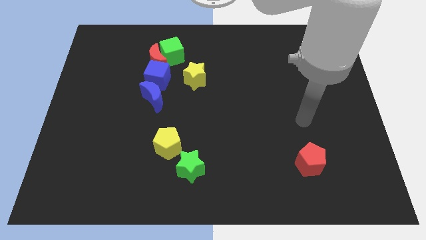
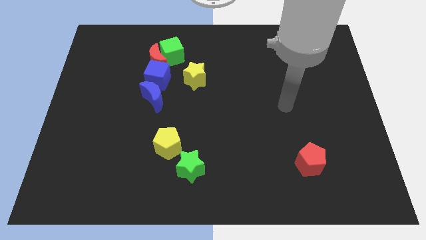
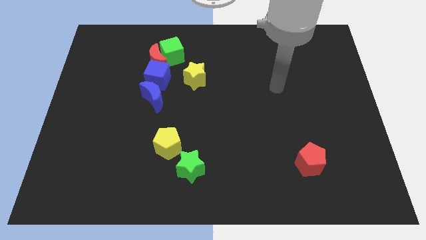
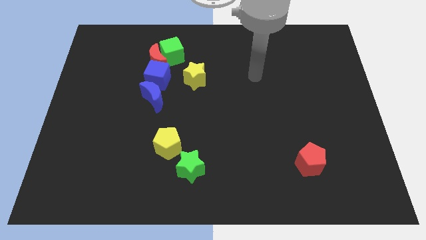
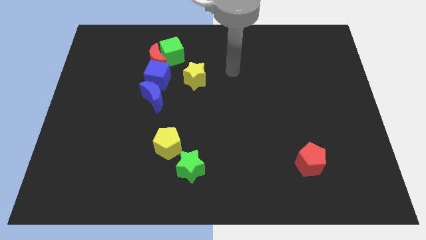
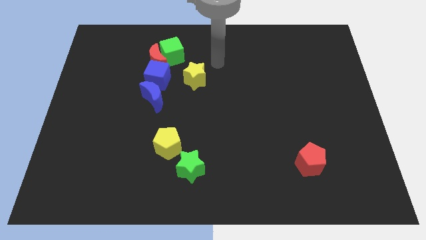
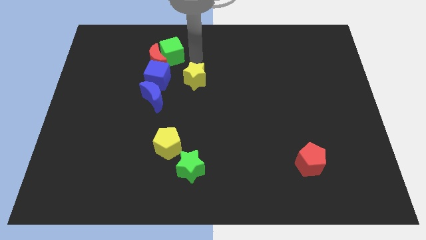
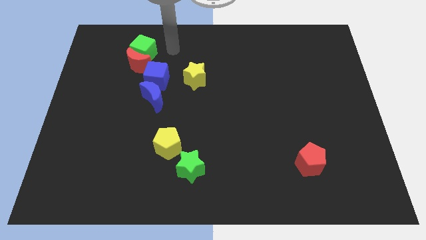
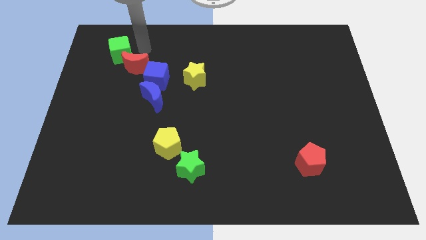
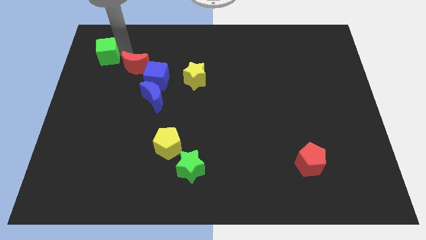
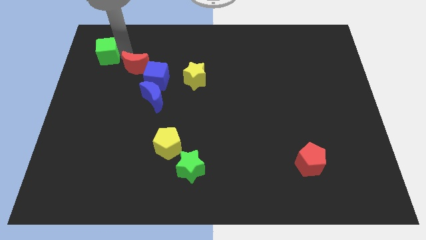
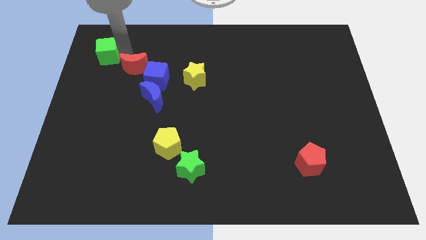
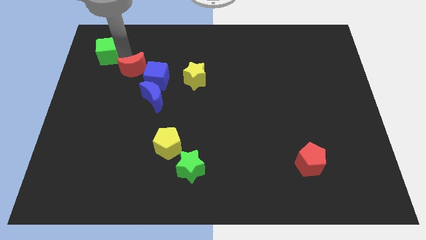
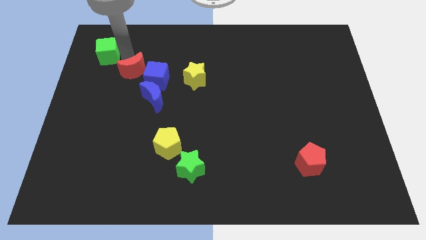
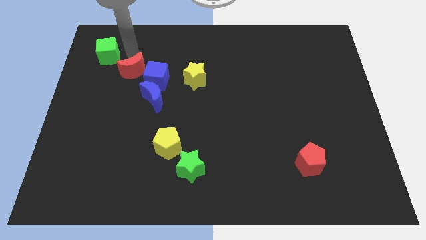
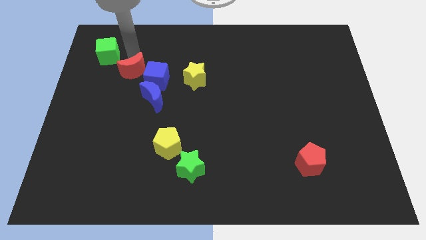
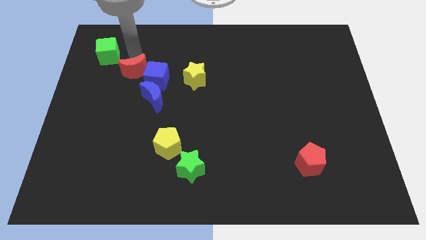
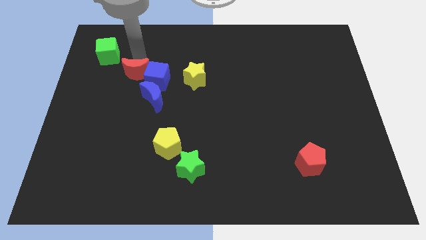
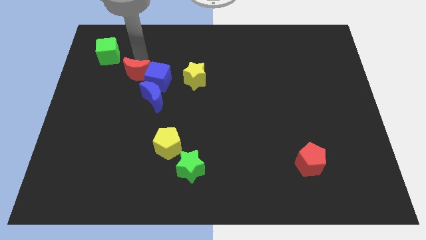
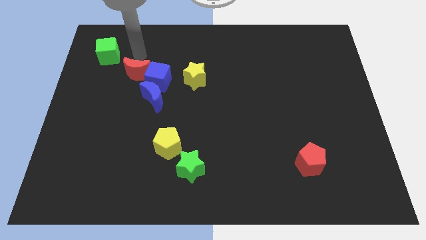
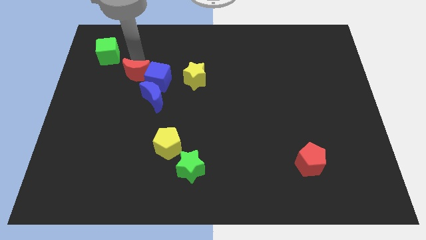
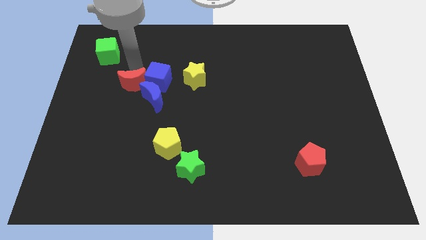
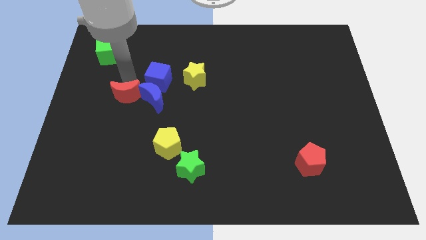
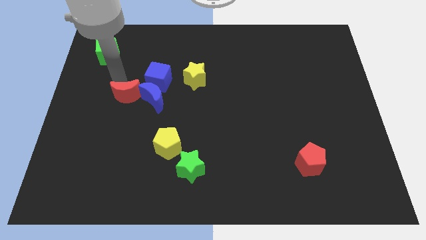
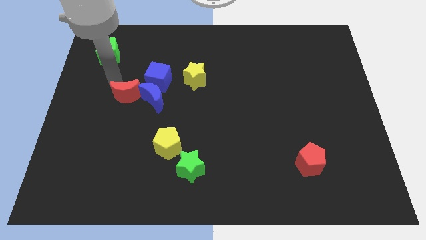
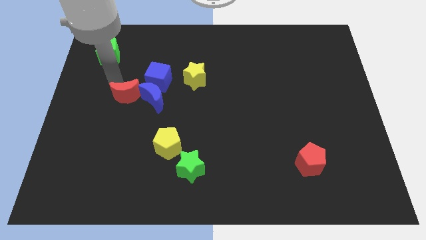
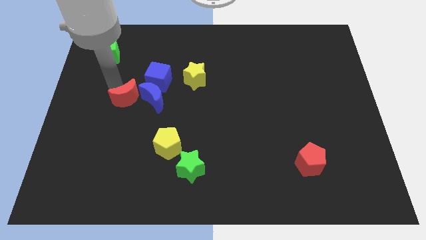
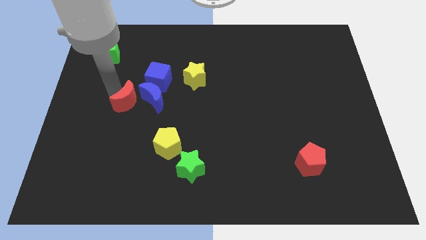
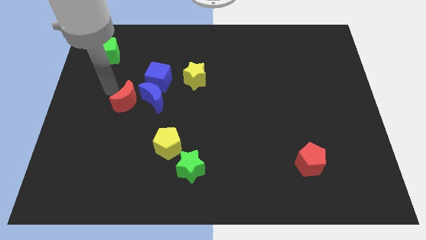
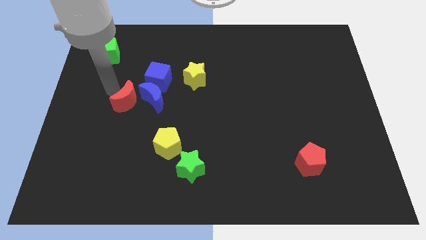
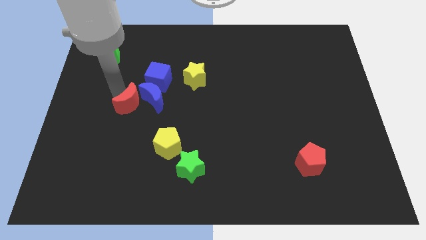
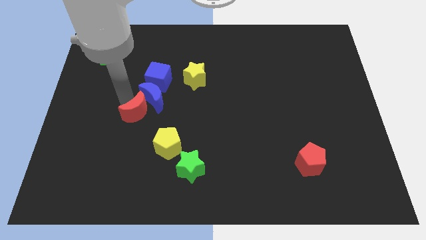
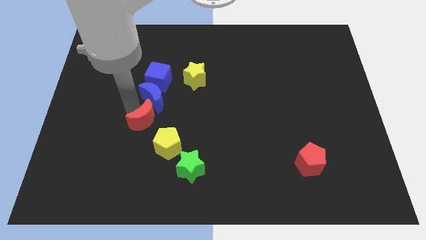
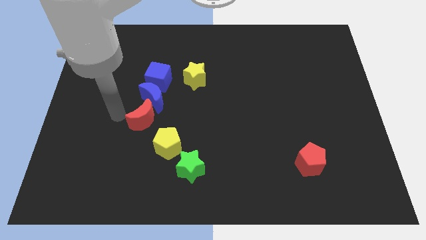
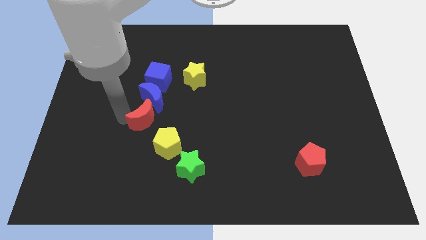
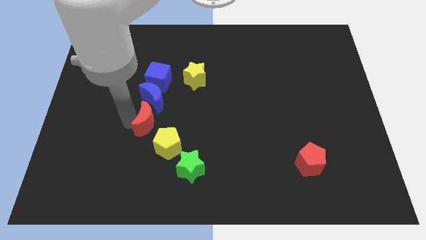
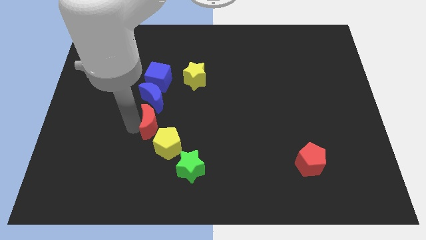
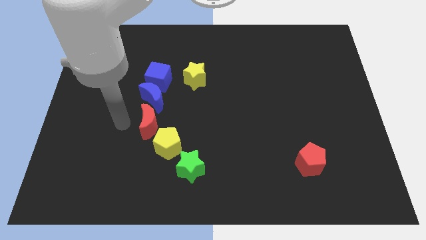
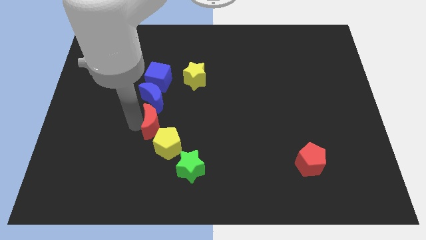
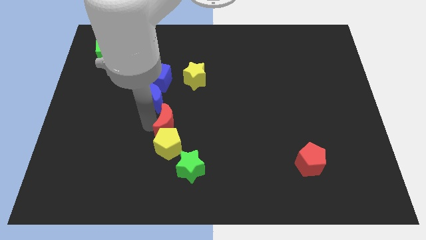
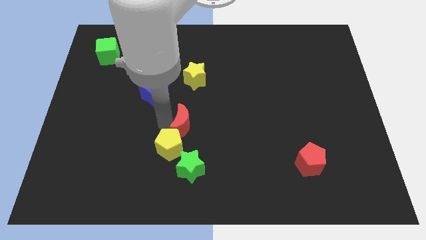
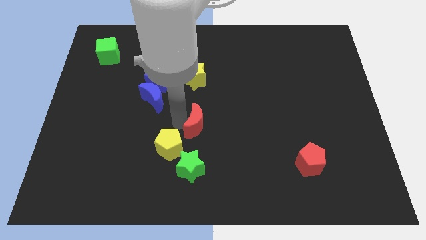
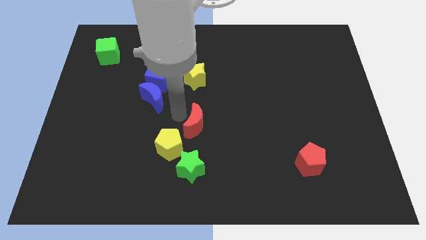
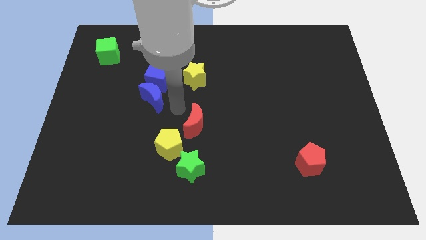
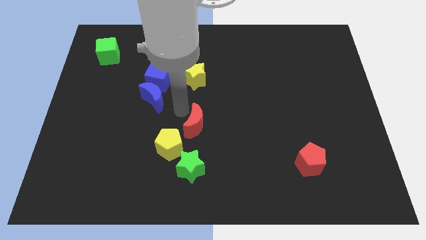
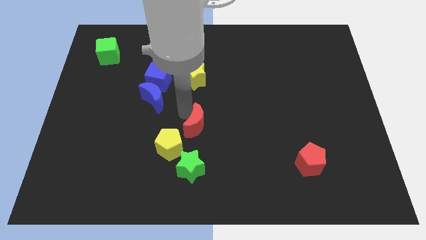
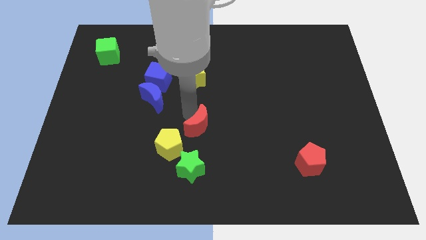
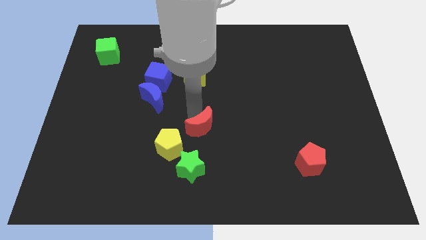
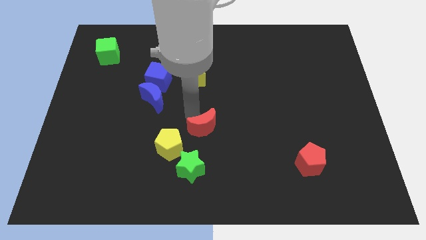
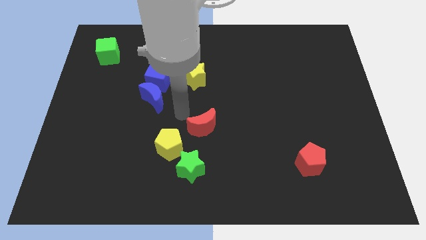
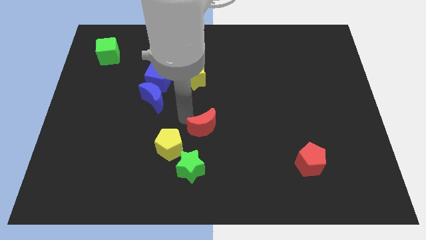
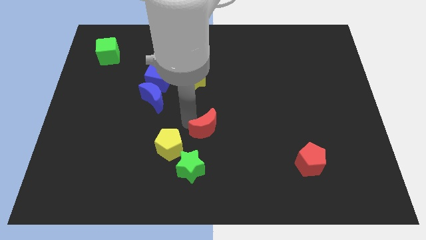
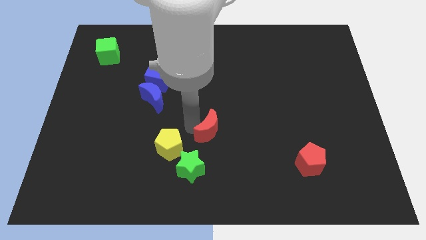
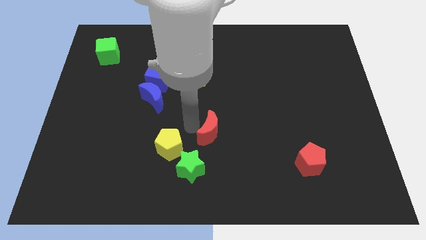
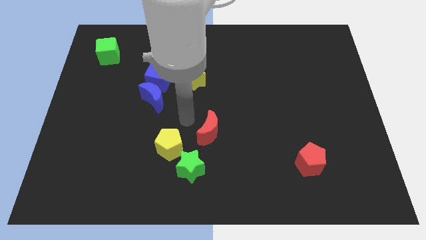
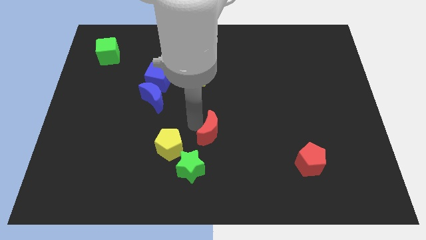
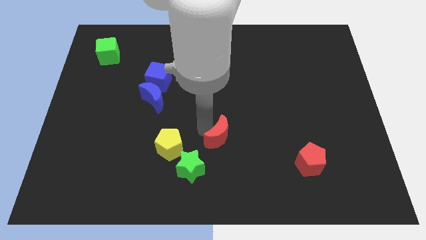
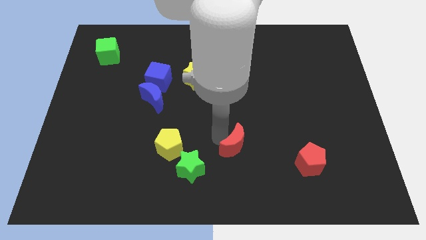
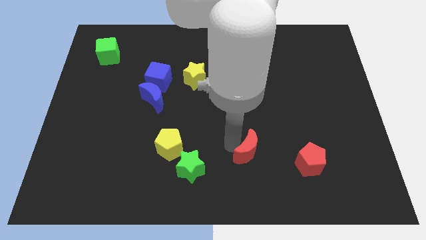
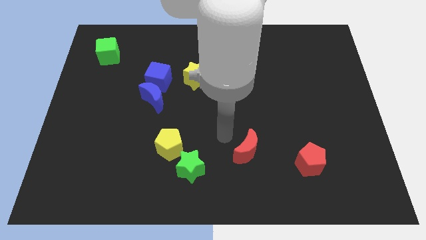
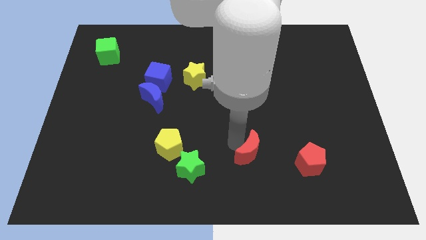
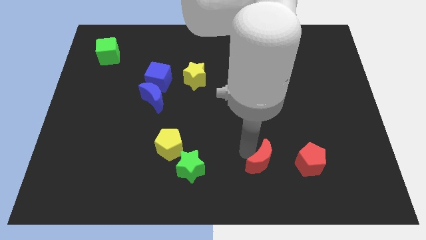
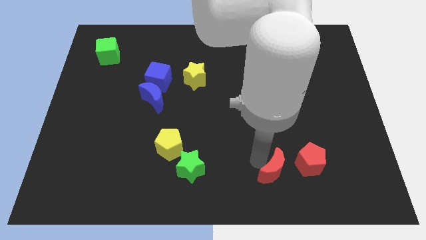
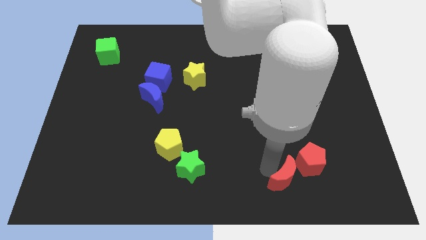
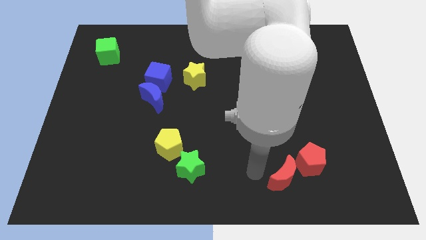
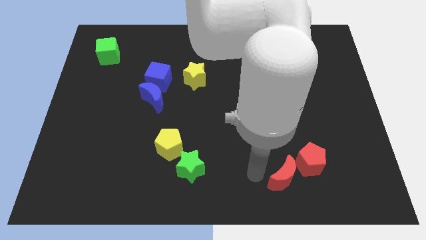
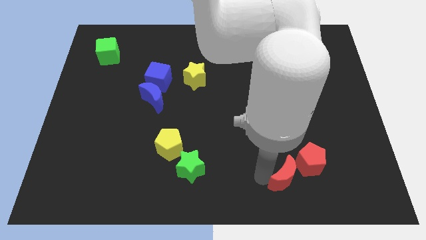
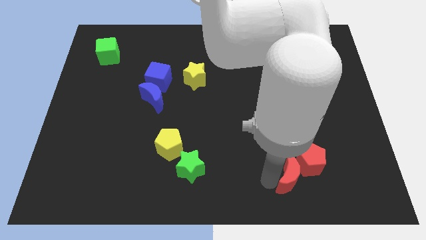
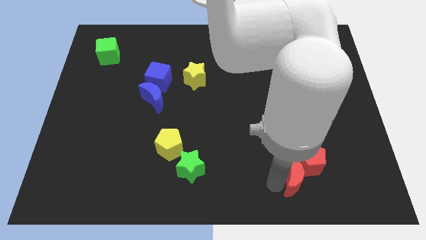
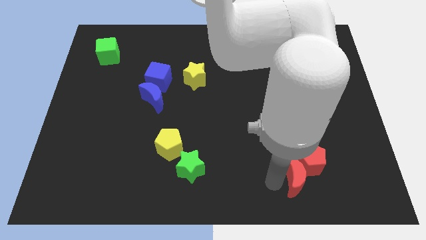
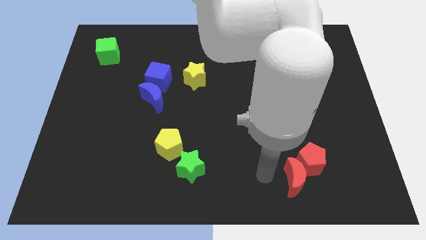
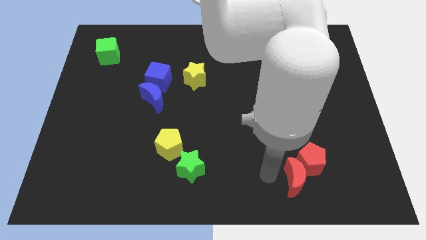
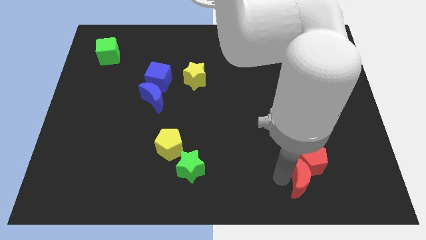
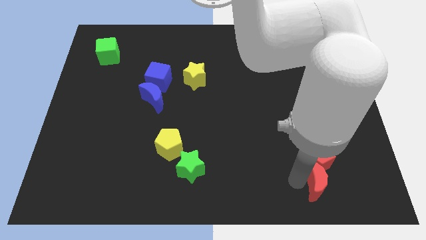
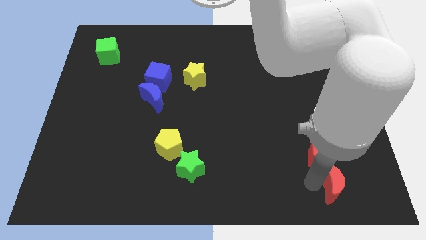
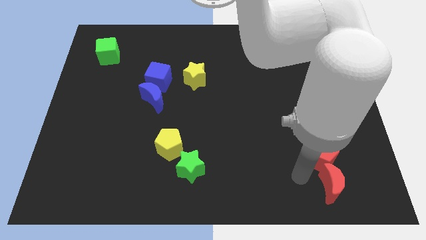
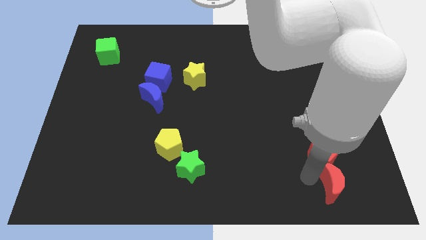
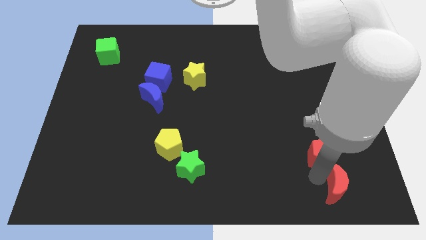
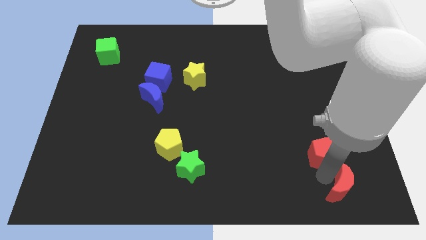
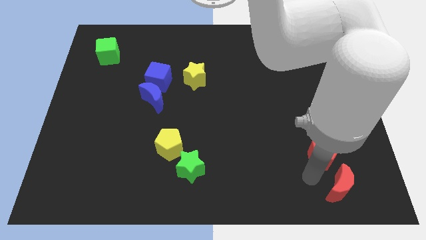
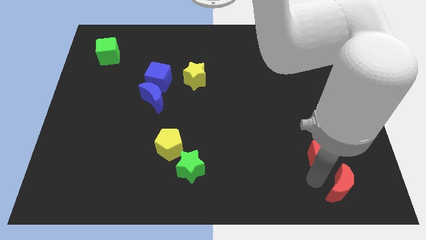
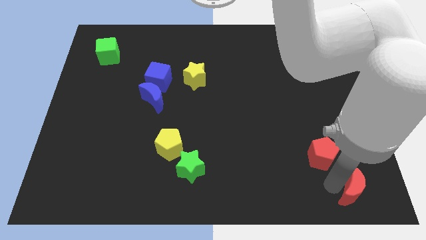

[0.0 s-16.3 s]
slide the red moon to the bottom right corner
